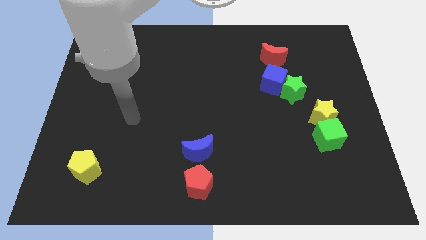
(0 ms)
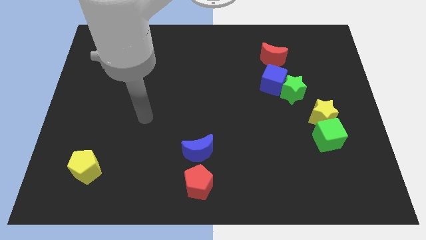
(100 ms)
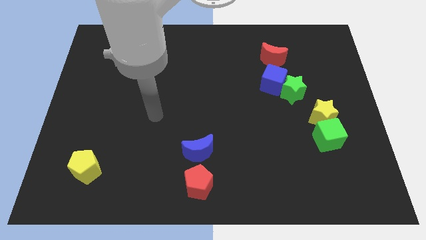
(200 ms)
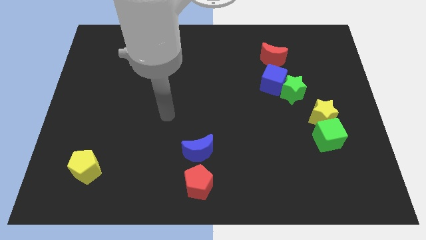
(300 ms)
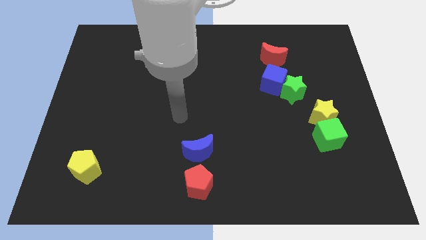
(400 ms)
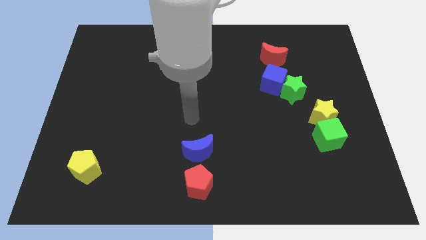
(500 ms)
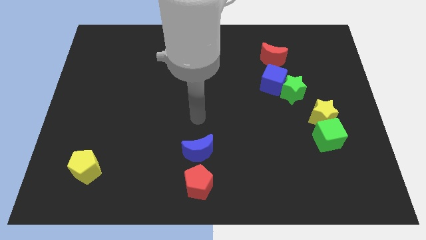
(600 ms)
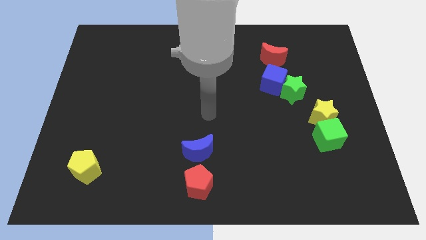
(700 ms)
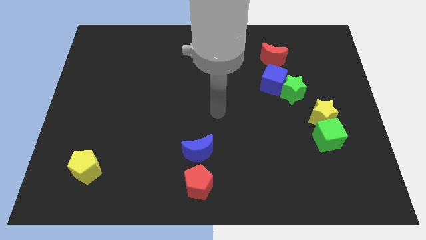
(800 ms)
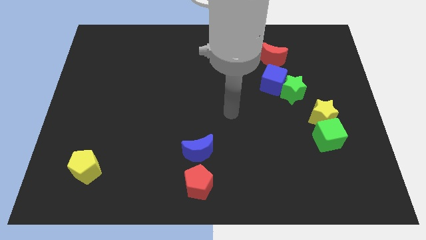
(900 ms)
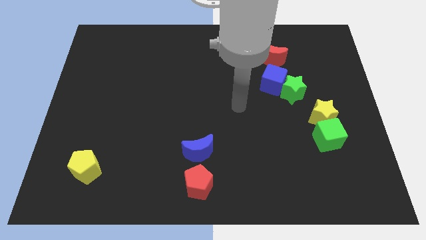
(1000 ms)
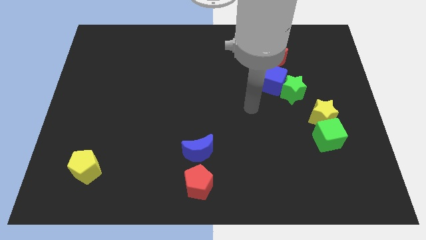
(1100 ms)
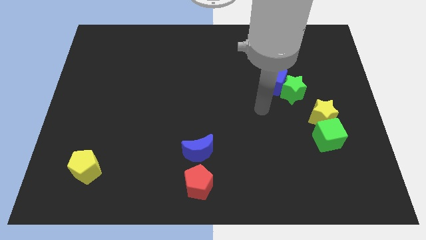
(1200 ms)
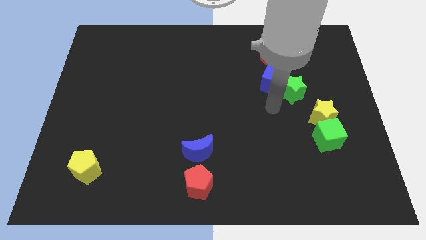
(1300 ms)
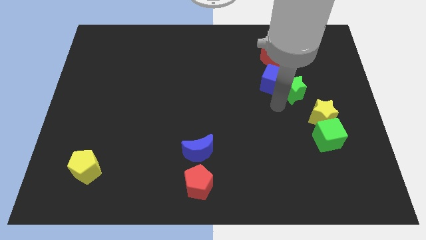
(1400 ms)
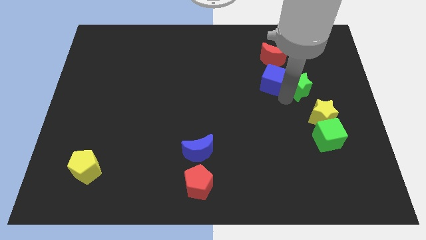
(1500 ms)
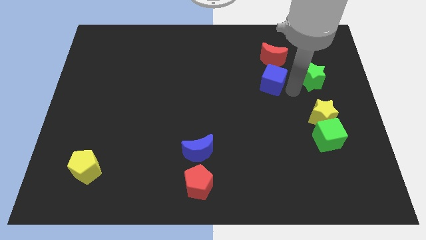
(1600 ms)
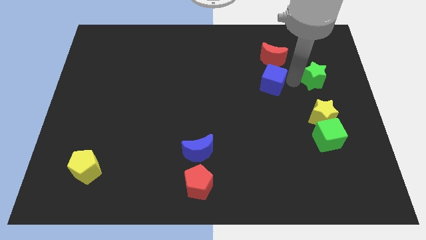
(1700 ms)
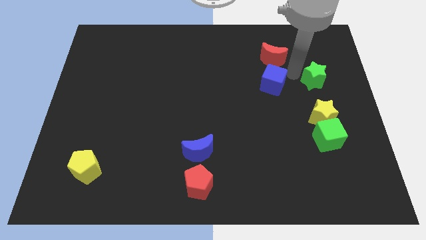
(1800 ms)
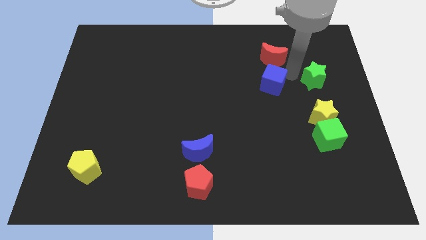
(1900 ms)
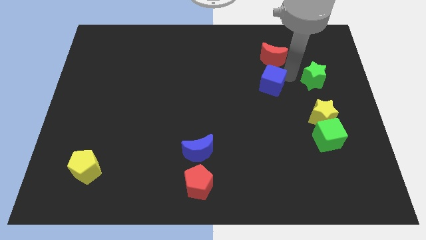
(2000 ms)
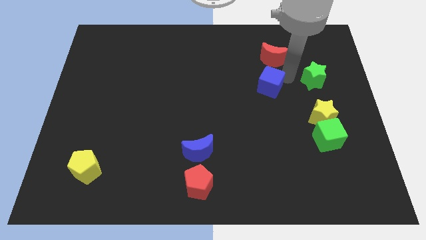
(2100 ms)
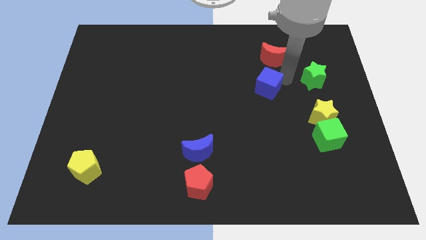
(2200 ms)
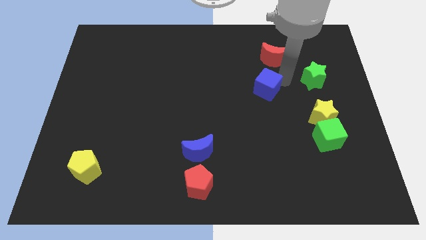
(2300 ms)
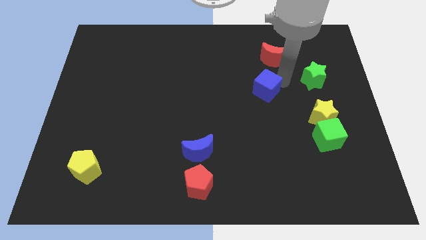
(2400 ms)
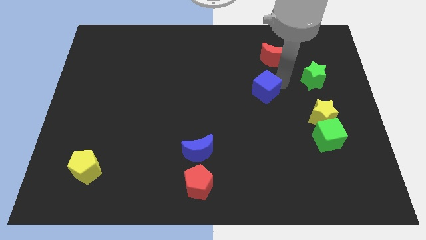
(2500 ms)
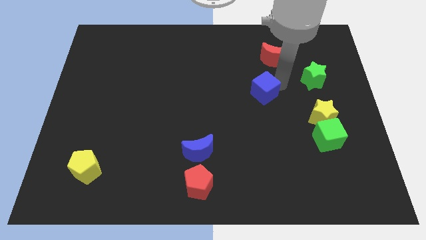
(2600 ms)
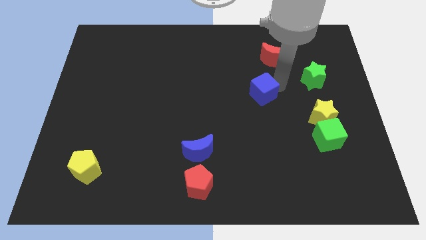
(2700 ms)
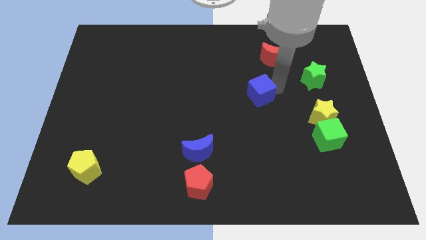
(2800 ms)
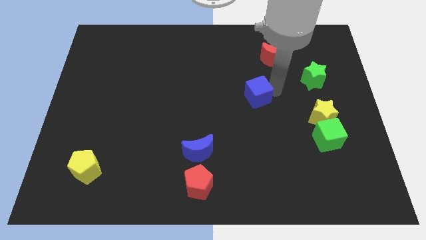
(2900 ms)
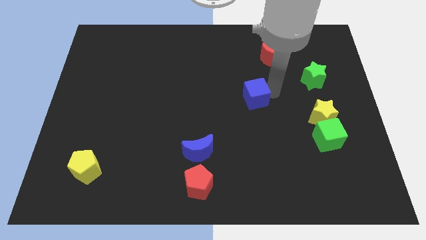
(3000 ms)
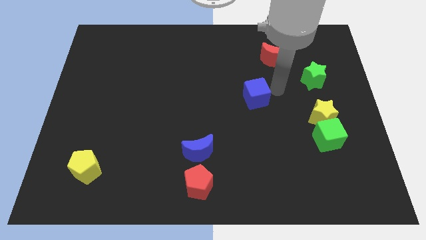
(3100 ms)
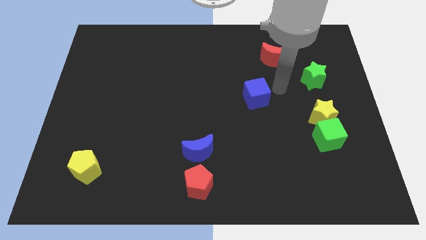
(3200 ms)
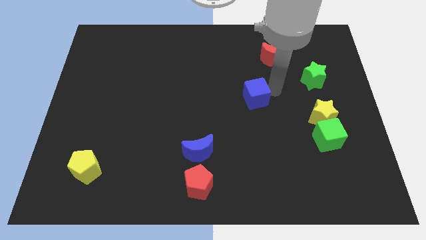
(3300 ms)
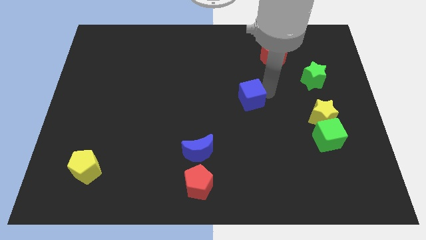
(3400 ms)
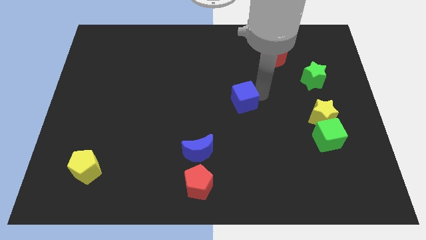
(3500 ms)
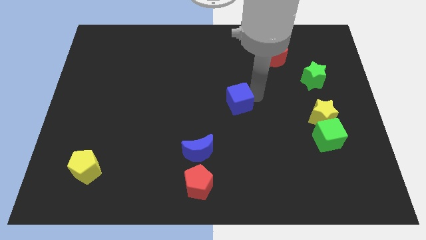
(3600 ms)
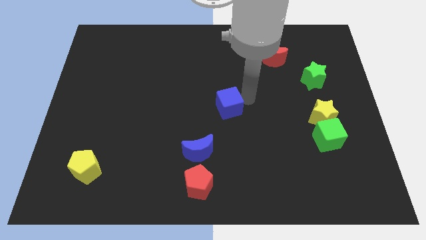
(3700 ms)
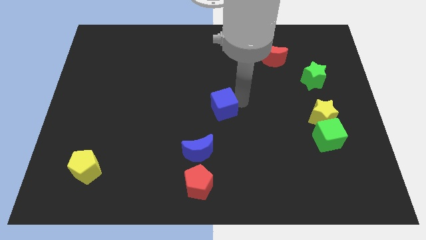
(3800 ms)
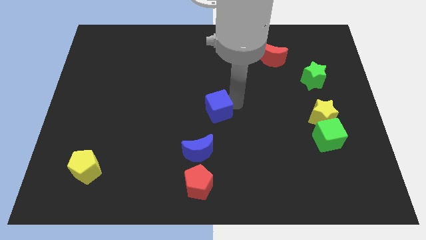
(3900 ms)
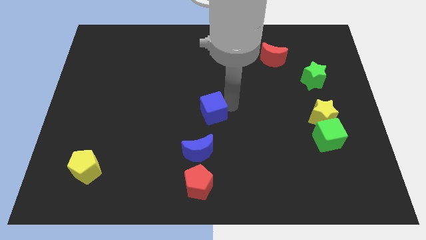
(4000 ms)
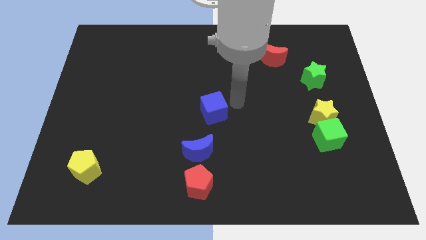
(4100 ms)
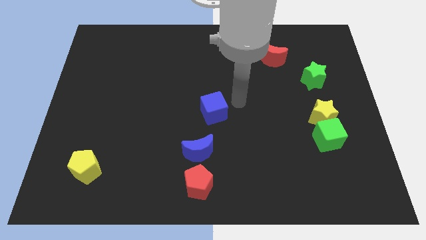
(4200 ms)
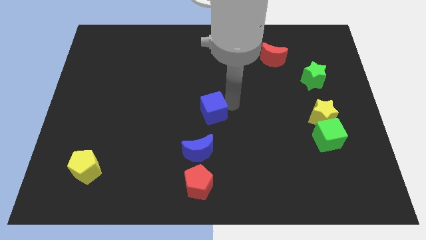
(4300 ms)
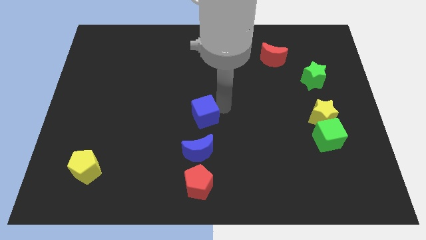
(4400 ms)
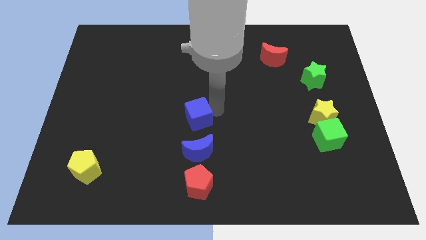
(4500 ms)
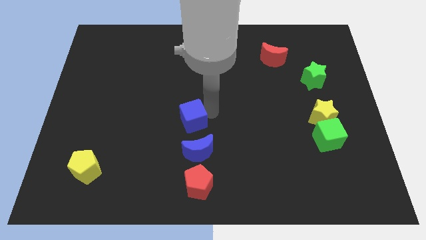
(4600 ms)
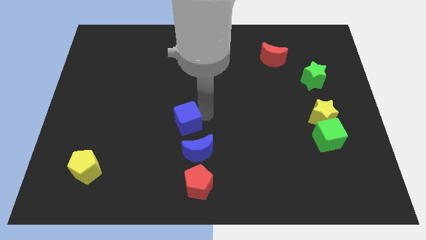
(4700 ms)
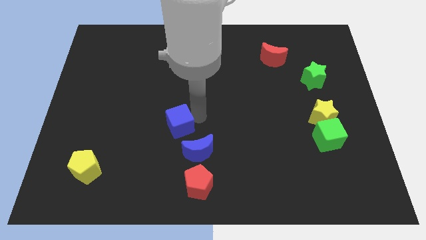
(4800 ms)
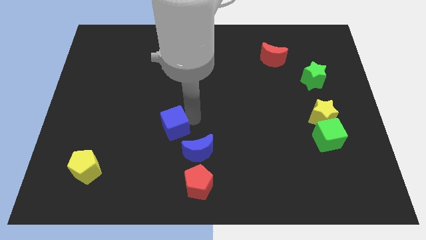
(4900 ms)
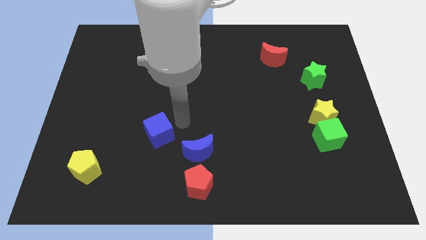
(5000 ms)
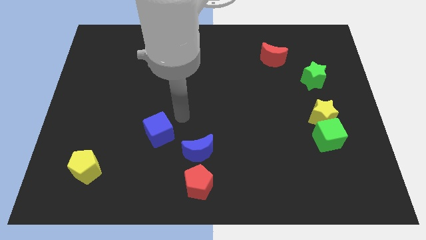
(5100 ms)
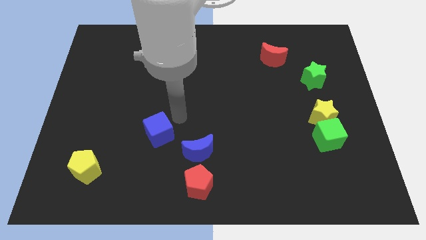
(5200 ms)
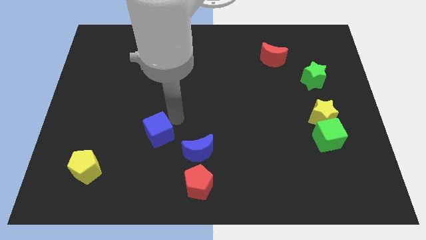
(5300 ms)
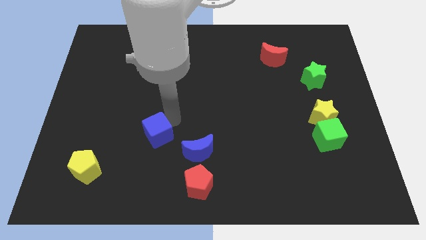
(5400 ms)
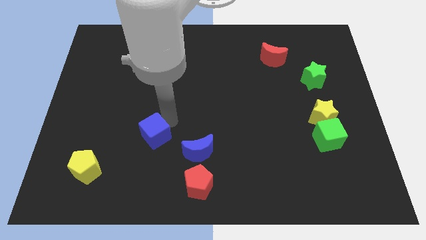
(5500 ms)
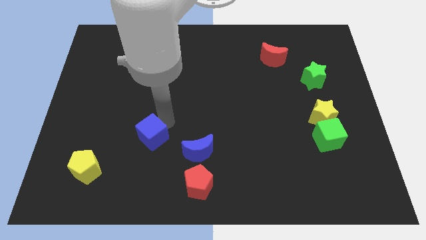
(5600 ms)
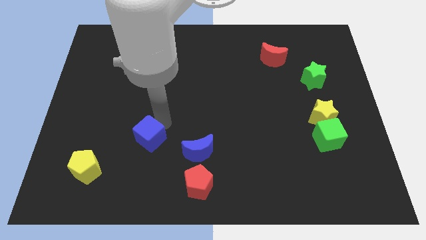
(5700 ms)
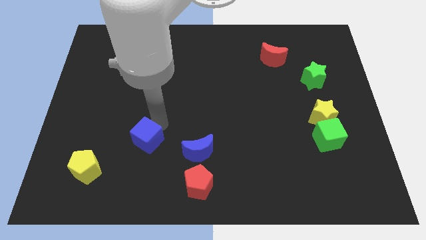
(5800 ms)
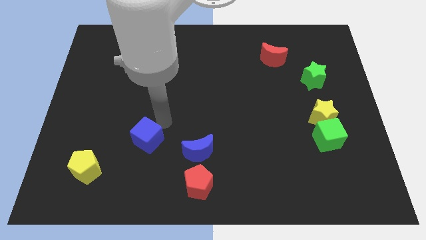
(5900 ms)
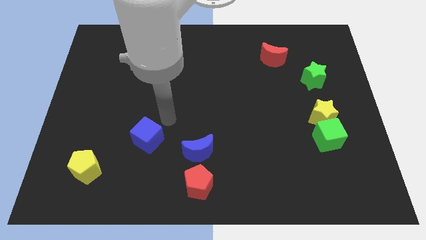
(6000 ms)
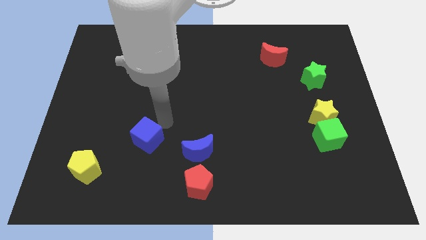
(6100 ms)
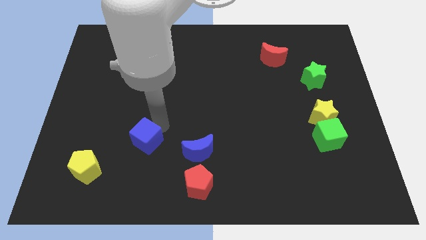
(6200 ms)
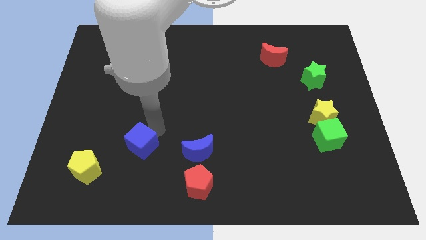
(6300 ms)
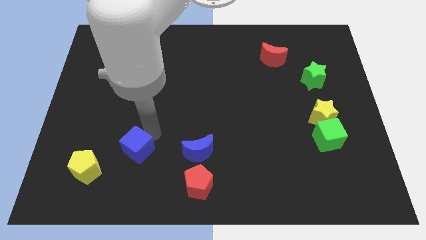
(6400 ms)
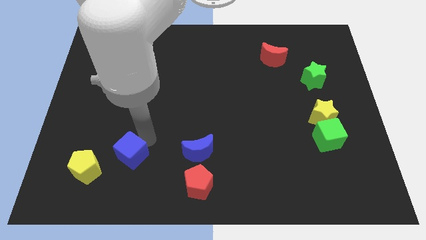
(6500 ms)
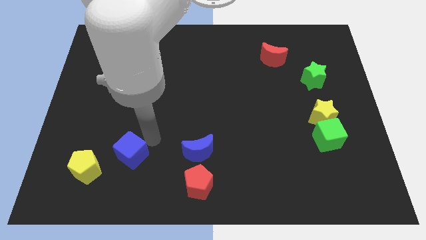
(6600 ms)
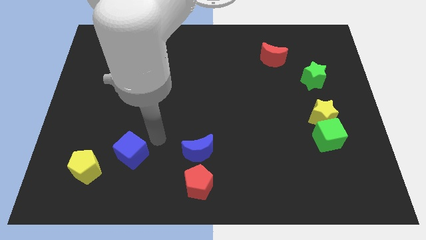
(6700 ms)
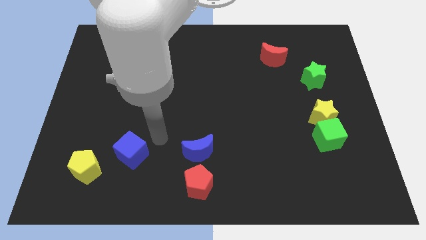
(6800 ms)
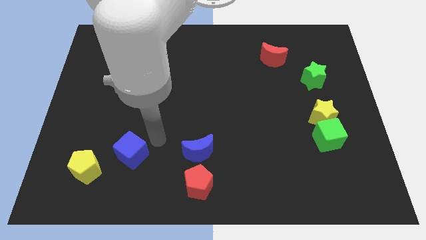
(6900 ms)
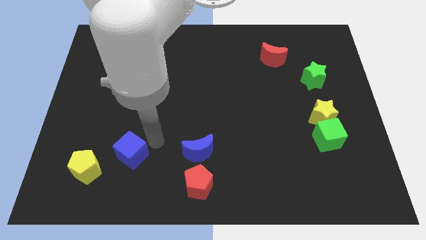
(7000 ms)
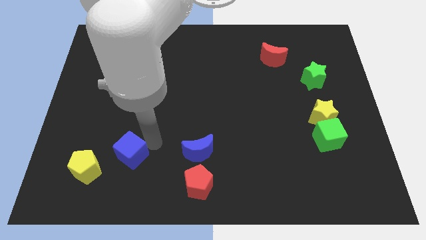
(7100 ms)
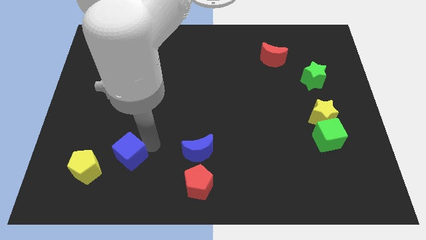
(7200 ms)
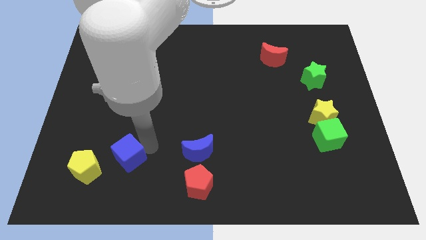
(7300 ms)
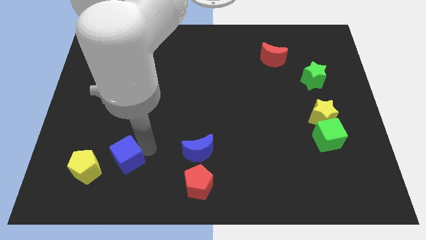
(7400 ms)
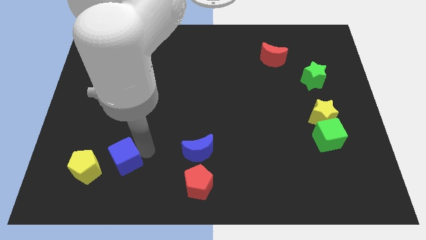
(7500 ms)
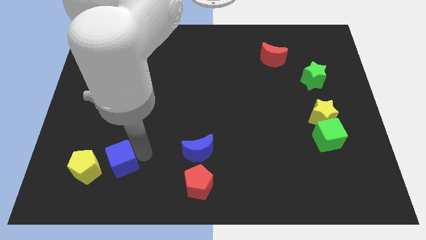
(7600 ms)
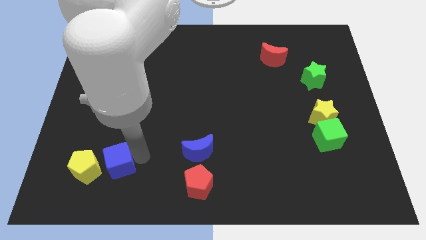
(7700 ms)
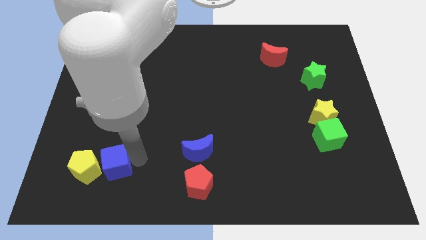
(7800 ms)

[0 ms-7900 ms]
slide the blue cube next to the yellow pentagon
